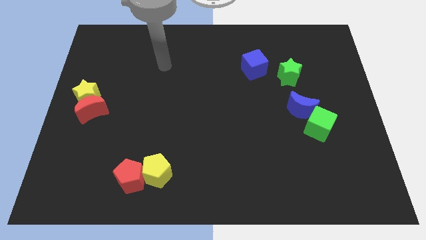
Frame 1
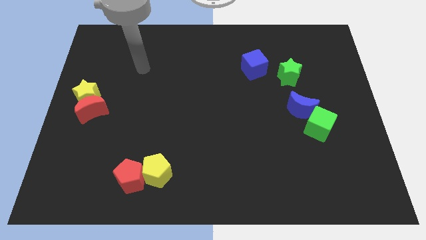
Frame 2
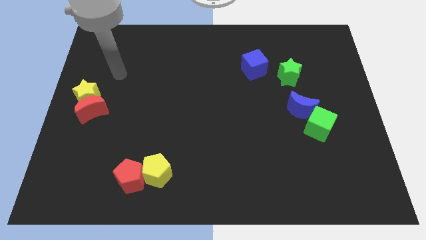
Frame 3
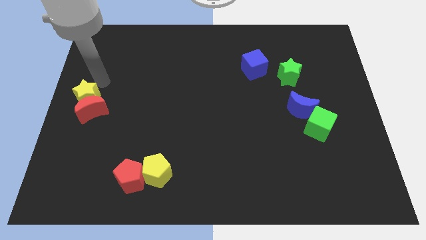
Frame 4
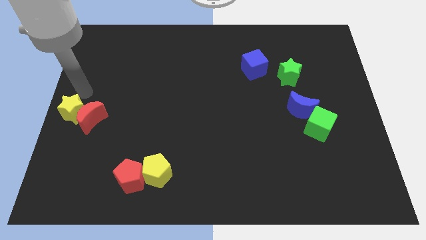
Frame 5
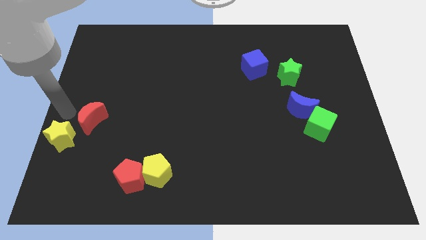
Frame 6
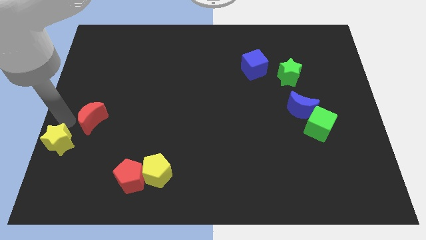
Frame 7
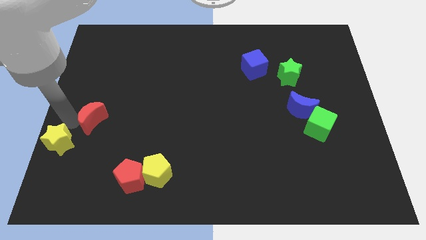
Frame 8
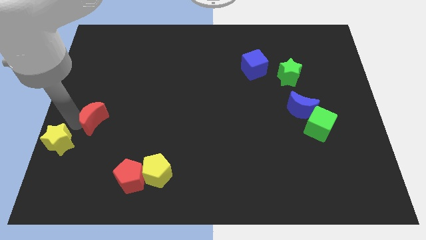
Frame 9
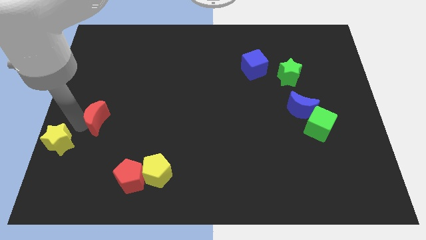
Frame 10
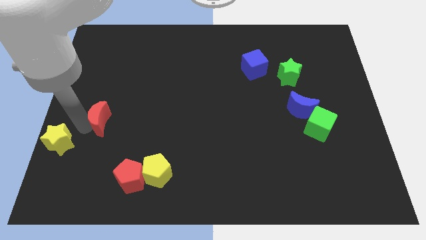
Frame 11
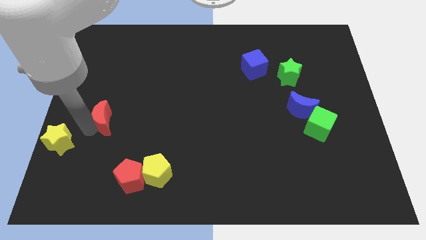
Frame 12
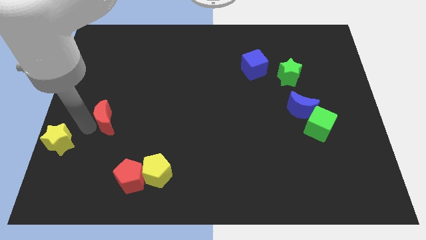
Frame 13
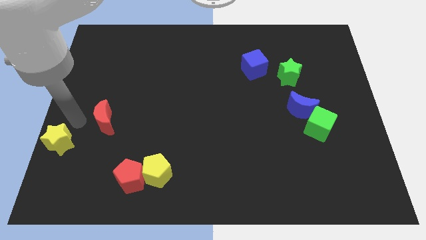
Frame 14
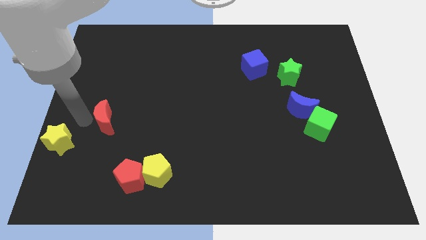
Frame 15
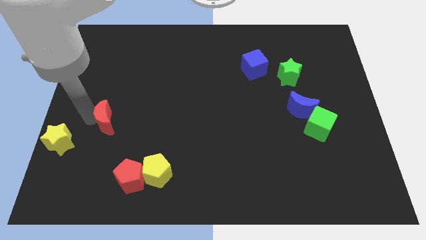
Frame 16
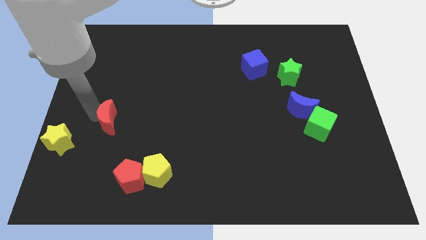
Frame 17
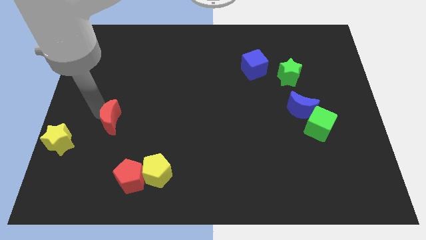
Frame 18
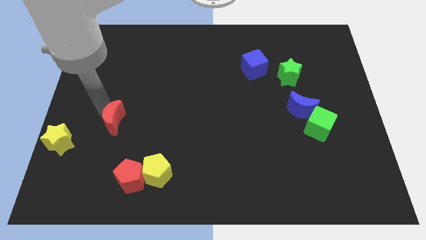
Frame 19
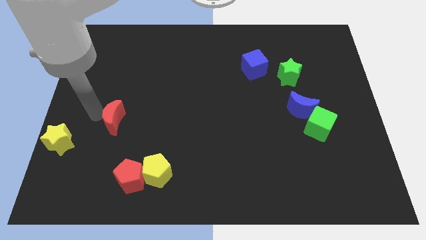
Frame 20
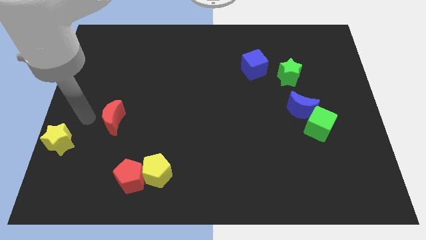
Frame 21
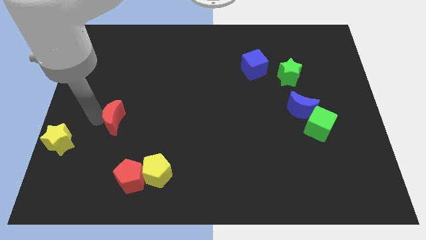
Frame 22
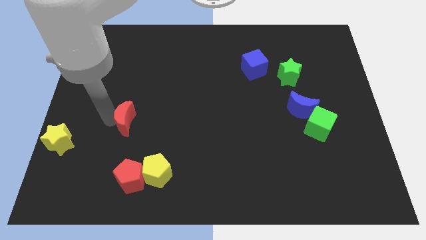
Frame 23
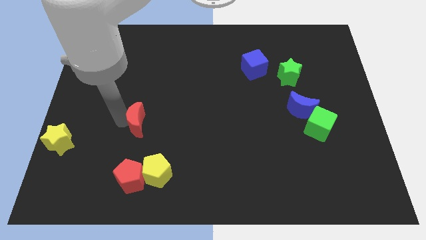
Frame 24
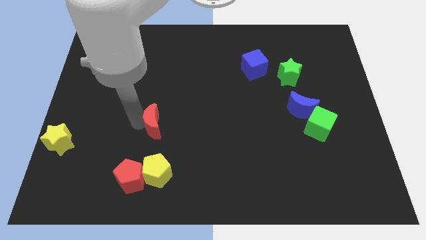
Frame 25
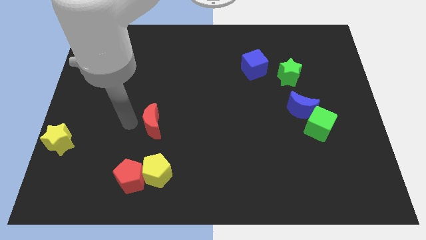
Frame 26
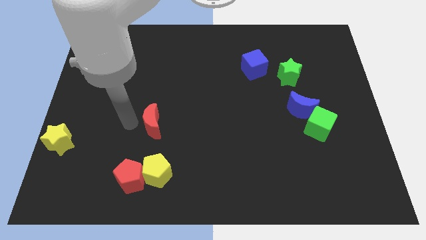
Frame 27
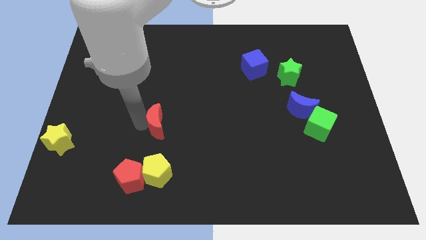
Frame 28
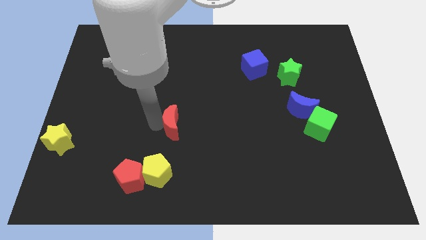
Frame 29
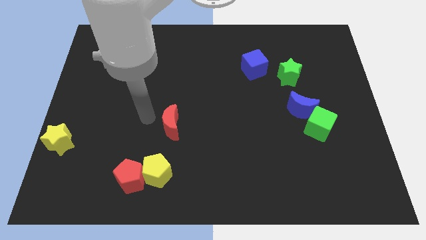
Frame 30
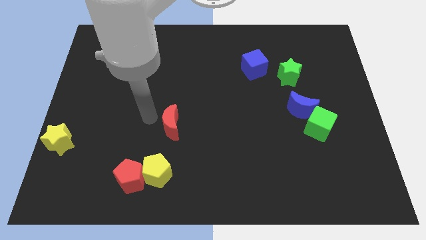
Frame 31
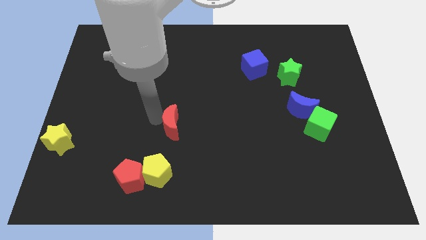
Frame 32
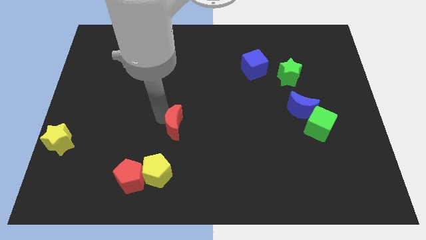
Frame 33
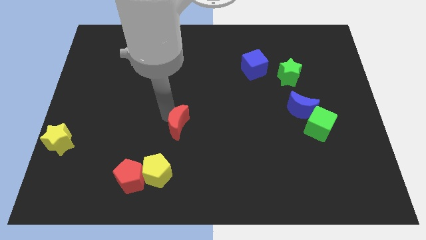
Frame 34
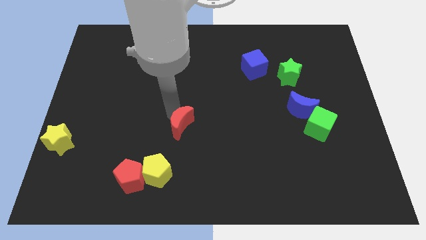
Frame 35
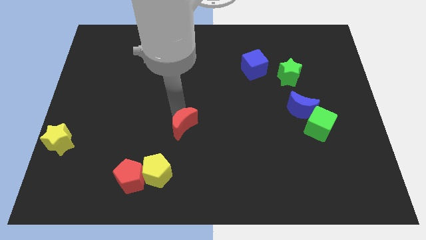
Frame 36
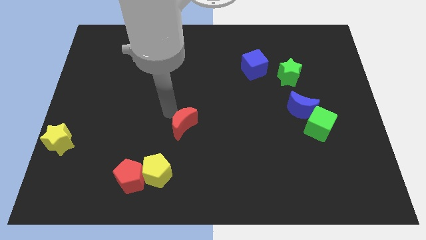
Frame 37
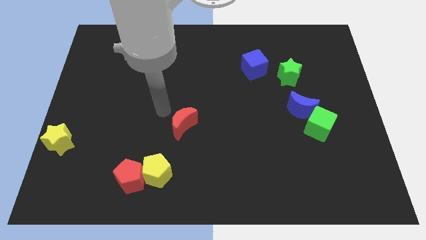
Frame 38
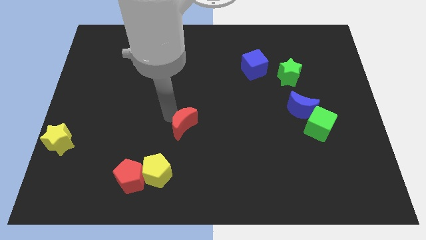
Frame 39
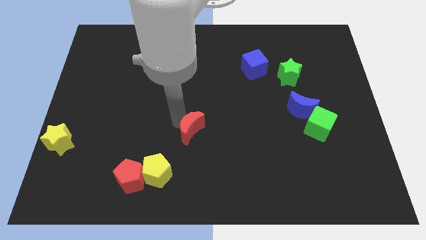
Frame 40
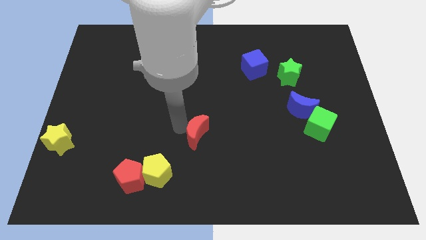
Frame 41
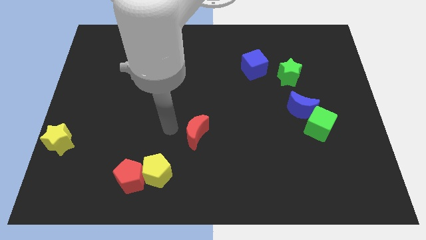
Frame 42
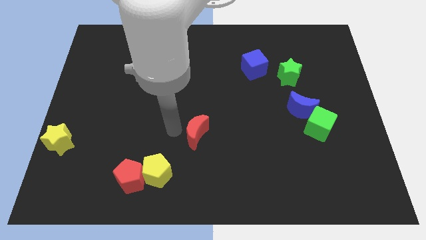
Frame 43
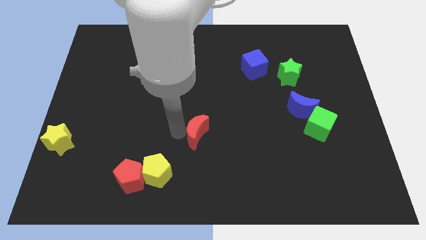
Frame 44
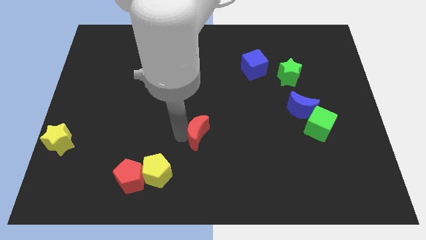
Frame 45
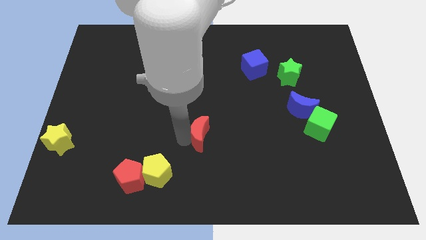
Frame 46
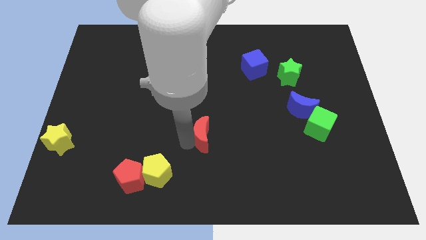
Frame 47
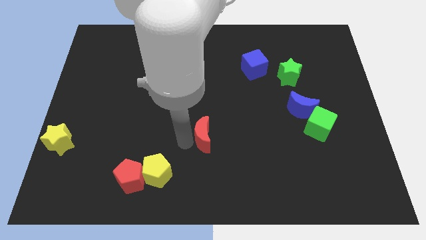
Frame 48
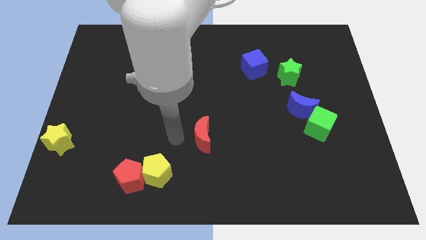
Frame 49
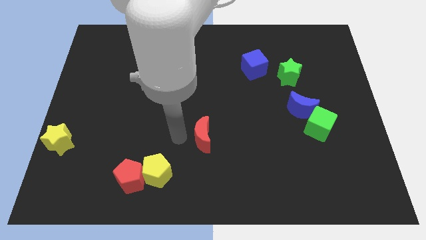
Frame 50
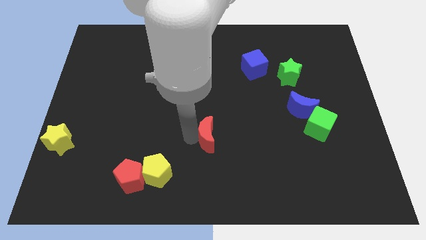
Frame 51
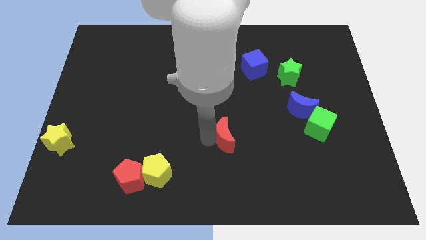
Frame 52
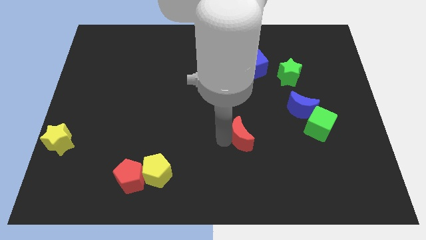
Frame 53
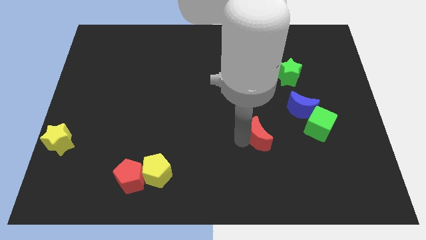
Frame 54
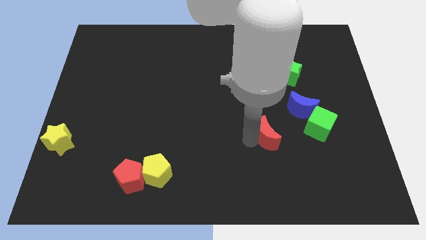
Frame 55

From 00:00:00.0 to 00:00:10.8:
move the red moon to the bottom left of the blue moon

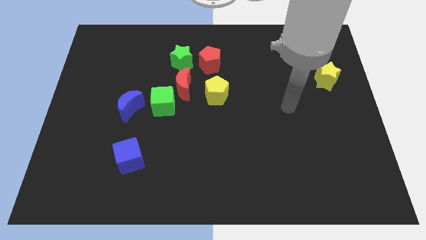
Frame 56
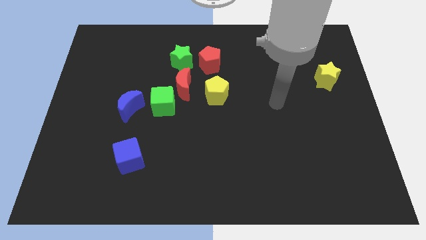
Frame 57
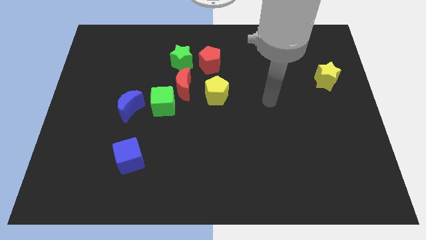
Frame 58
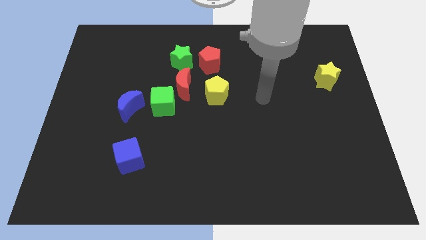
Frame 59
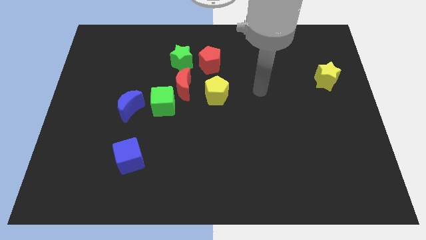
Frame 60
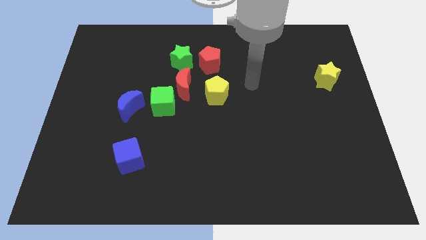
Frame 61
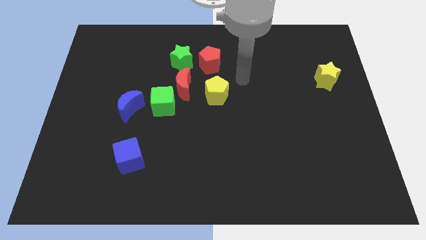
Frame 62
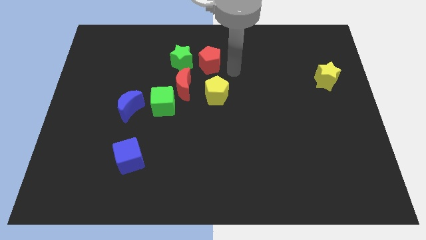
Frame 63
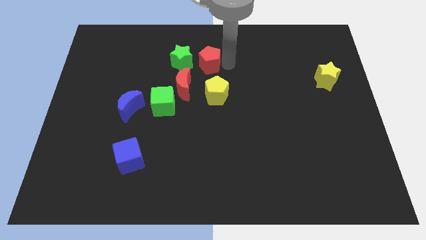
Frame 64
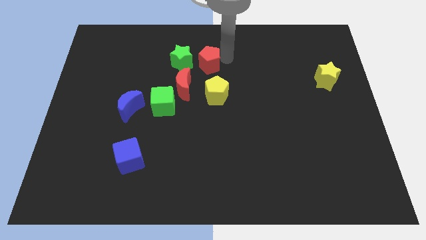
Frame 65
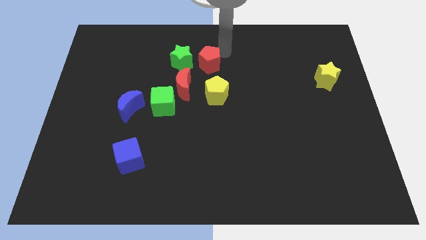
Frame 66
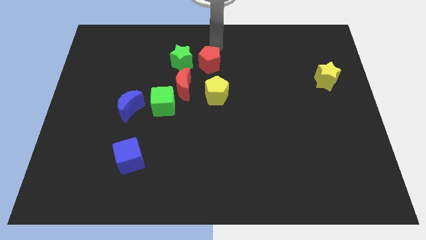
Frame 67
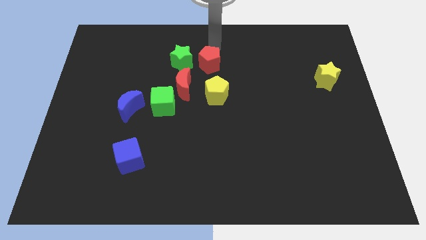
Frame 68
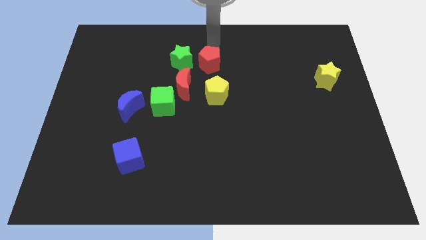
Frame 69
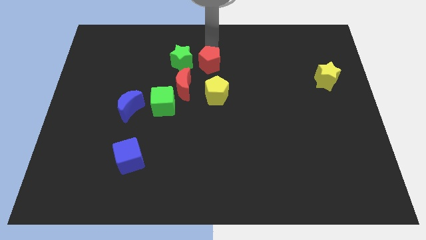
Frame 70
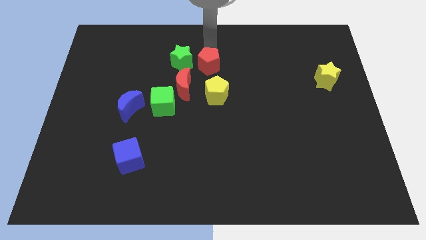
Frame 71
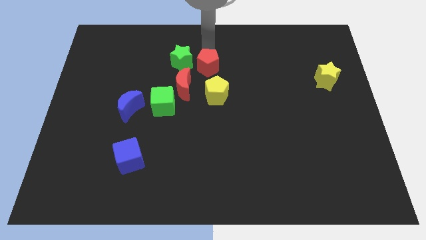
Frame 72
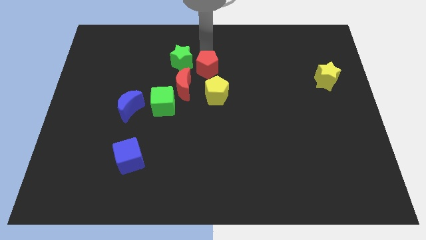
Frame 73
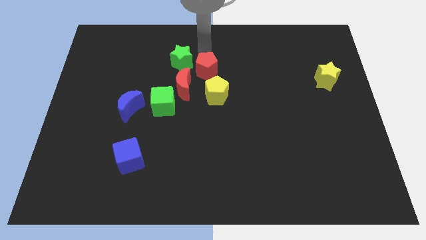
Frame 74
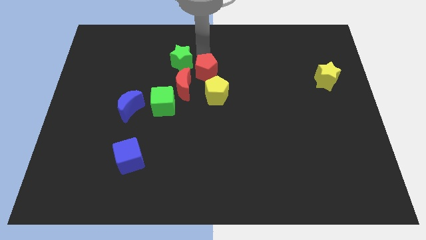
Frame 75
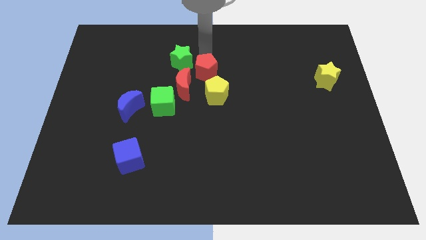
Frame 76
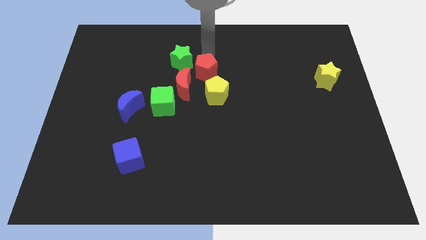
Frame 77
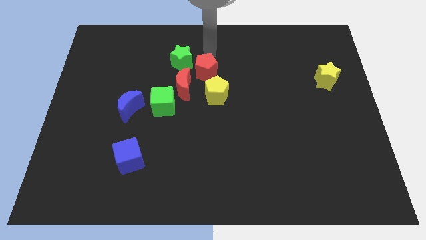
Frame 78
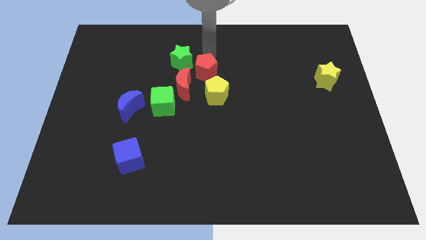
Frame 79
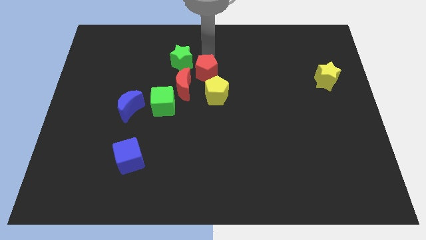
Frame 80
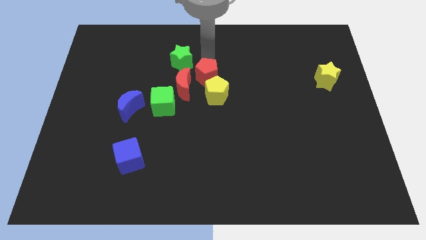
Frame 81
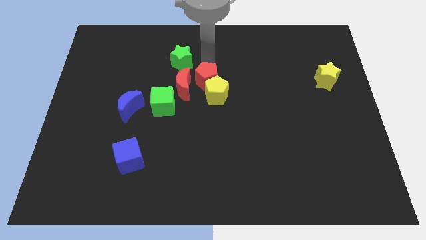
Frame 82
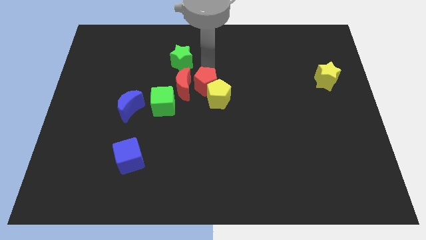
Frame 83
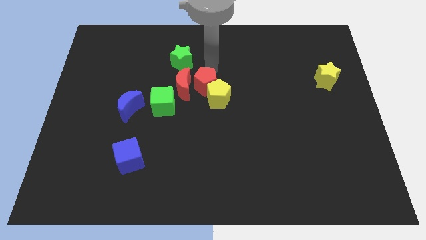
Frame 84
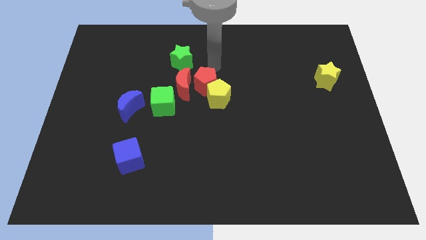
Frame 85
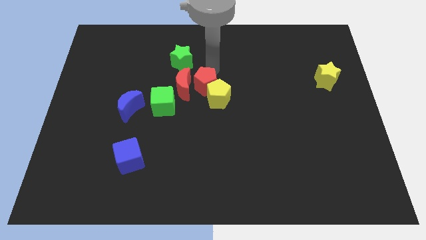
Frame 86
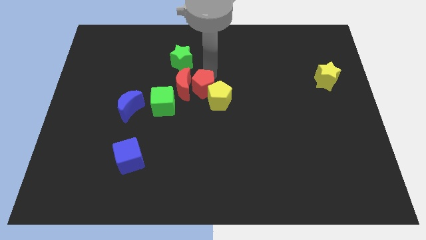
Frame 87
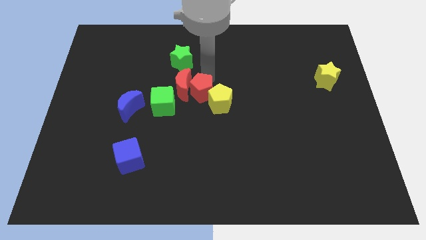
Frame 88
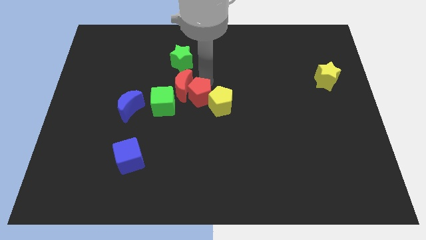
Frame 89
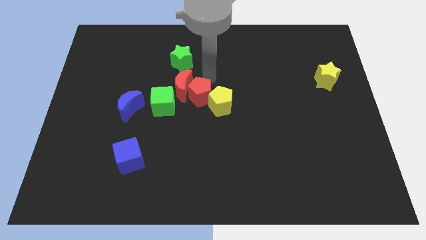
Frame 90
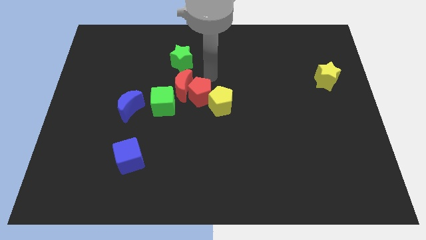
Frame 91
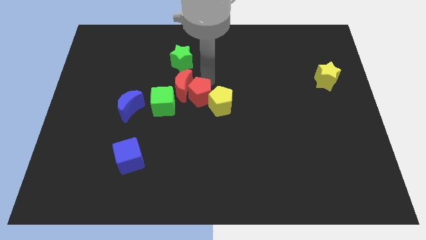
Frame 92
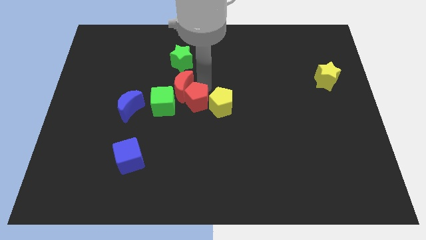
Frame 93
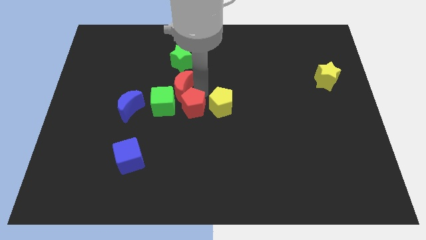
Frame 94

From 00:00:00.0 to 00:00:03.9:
slide the red pentagon to the bottom right side of the green cube
